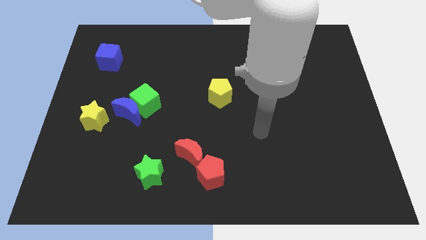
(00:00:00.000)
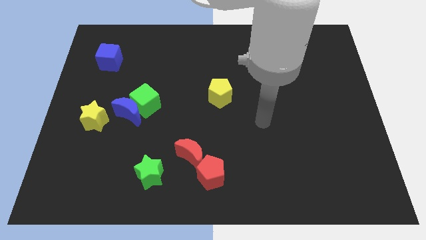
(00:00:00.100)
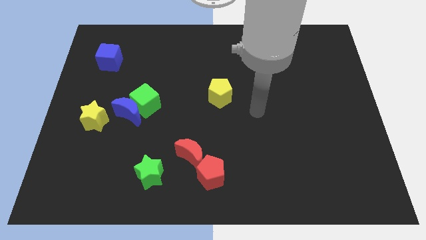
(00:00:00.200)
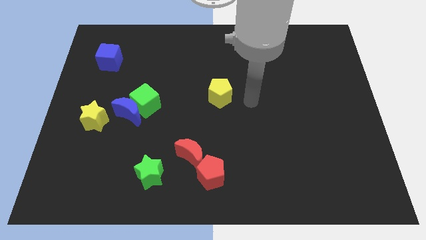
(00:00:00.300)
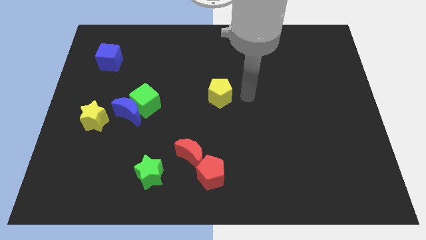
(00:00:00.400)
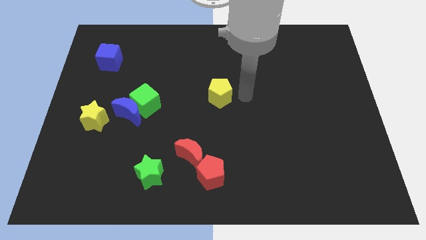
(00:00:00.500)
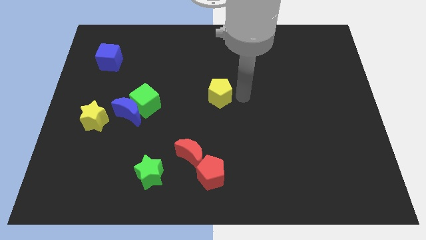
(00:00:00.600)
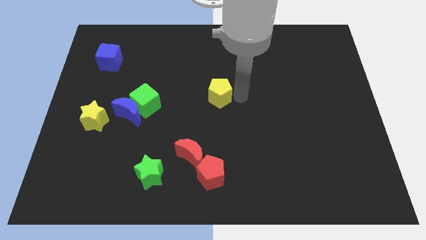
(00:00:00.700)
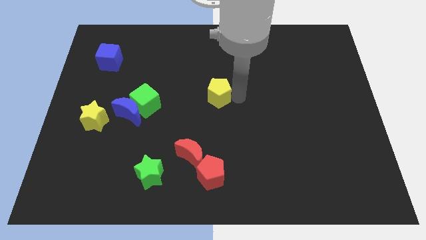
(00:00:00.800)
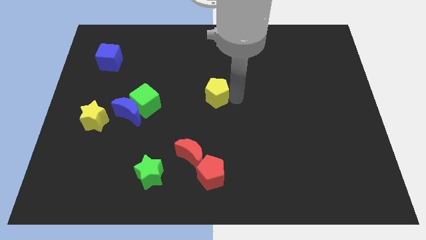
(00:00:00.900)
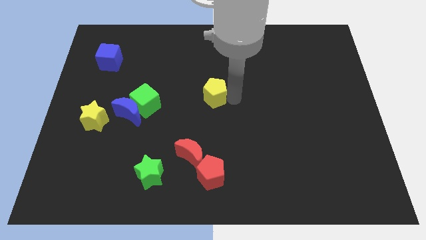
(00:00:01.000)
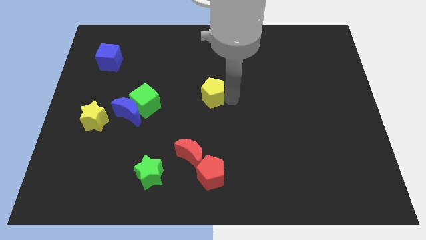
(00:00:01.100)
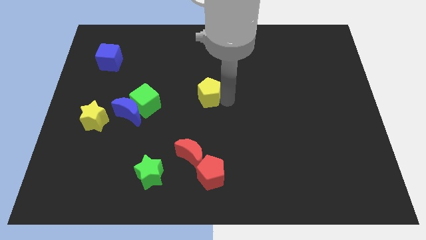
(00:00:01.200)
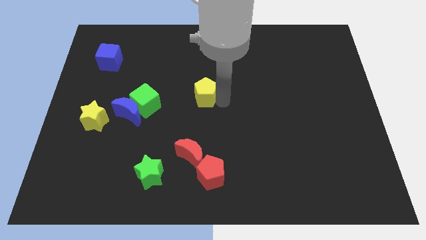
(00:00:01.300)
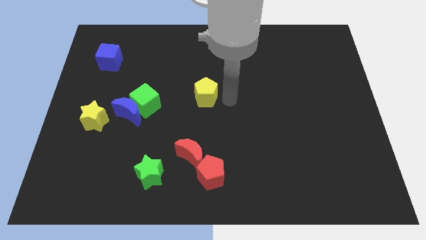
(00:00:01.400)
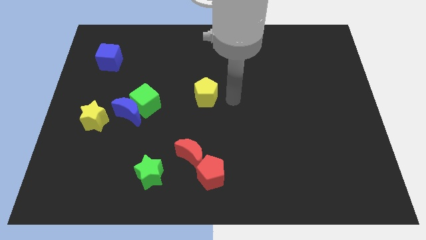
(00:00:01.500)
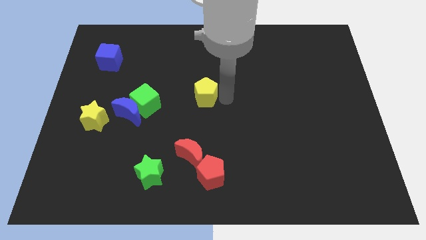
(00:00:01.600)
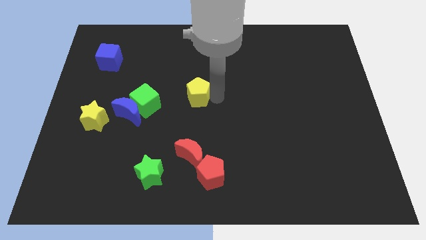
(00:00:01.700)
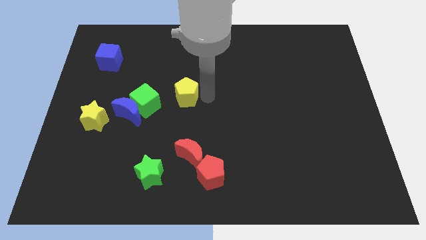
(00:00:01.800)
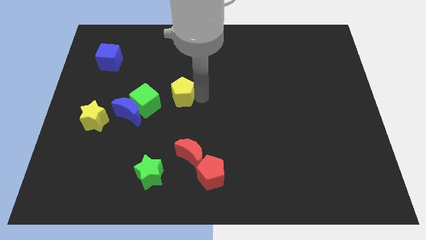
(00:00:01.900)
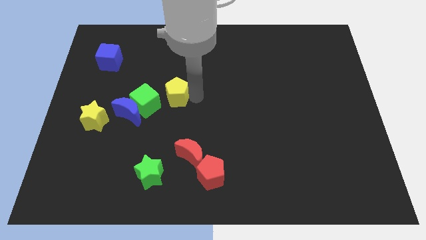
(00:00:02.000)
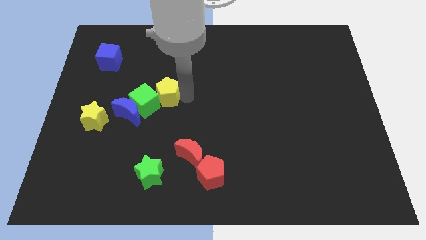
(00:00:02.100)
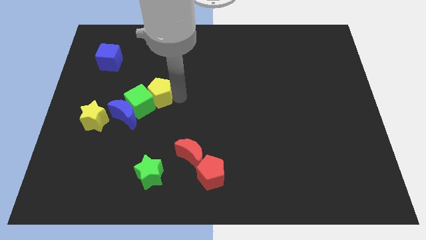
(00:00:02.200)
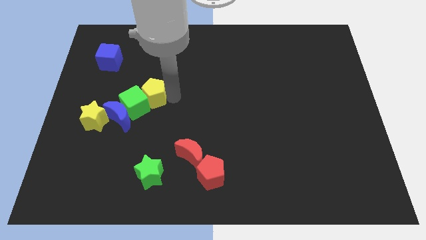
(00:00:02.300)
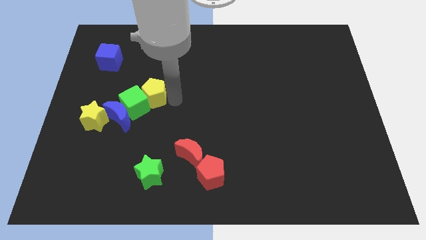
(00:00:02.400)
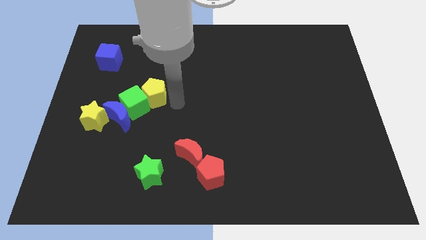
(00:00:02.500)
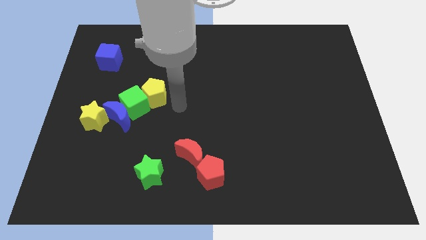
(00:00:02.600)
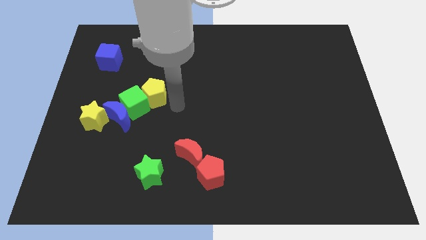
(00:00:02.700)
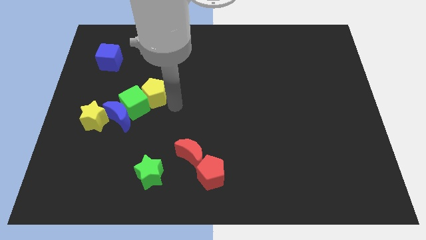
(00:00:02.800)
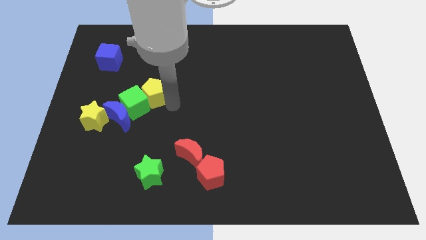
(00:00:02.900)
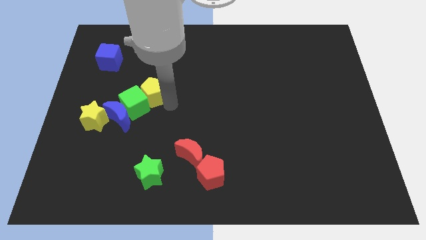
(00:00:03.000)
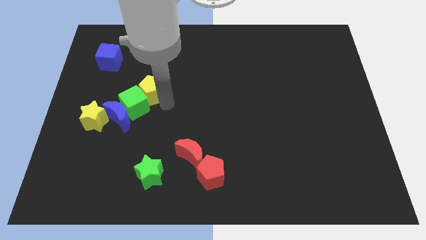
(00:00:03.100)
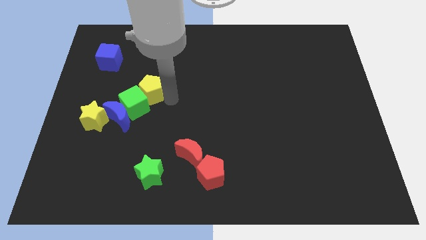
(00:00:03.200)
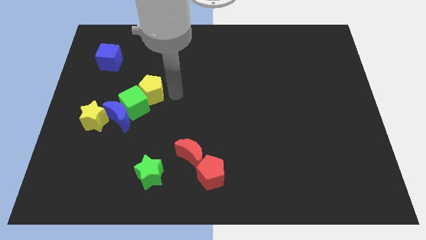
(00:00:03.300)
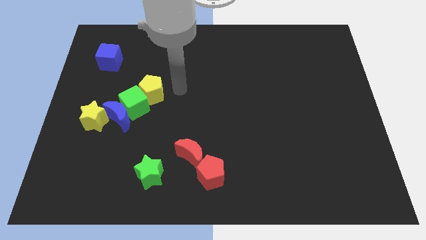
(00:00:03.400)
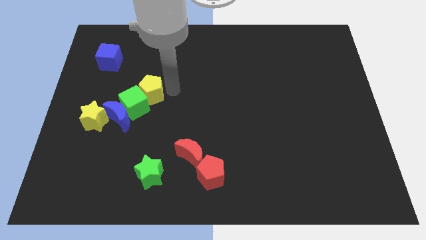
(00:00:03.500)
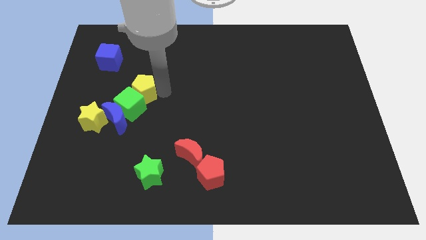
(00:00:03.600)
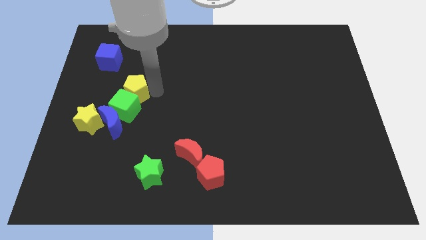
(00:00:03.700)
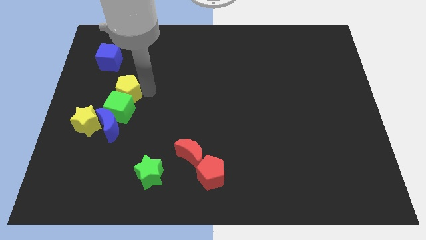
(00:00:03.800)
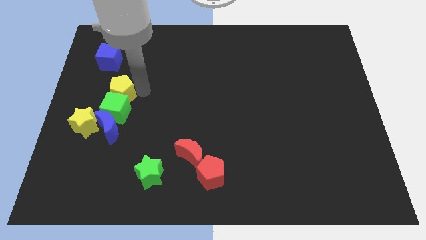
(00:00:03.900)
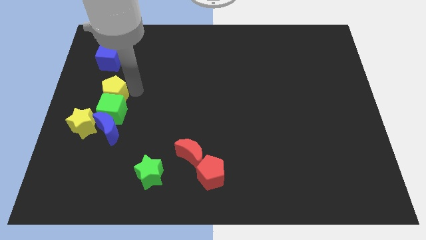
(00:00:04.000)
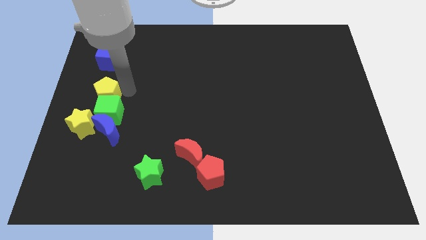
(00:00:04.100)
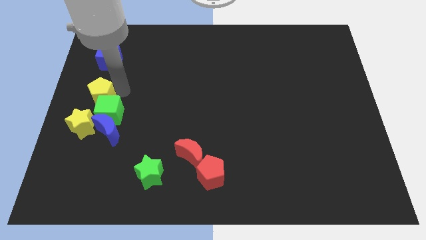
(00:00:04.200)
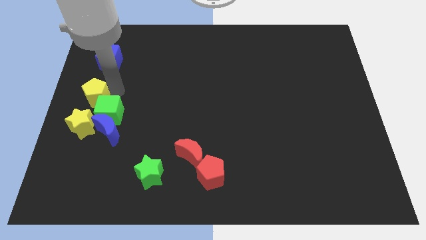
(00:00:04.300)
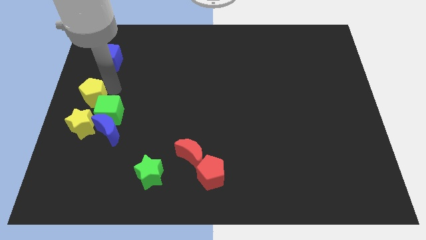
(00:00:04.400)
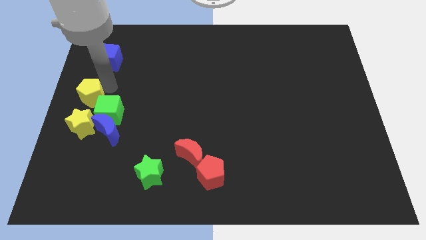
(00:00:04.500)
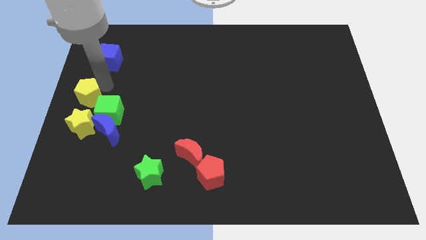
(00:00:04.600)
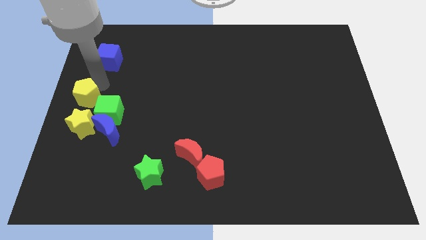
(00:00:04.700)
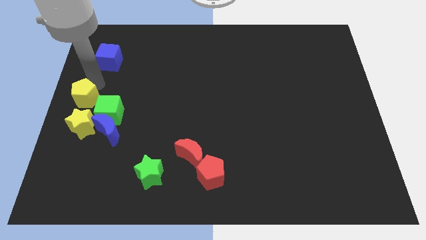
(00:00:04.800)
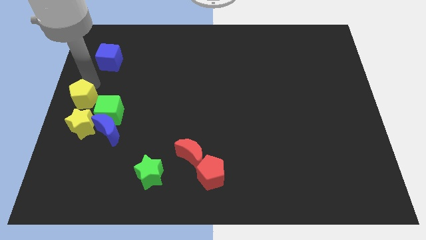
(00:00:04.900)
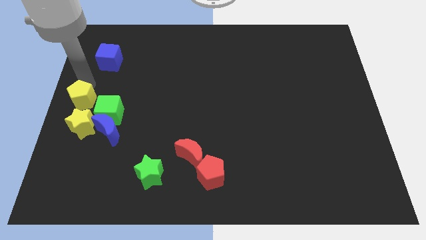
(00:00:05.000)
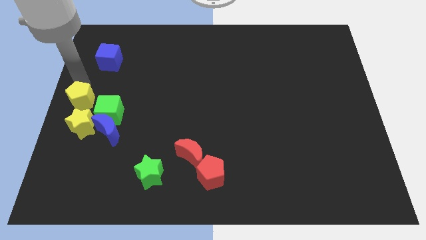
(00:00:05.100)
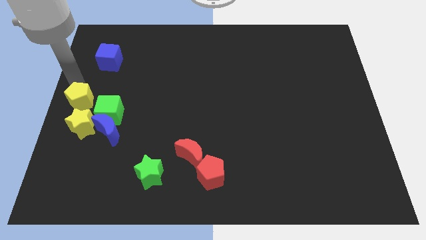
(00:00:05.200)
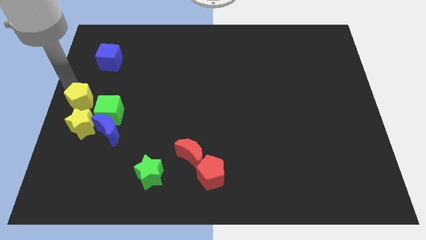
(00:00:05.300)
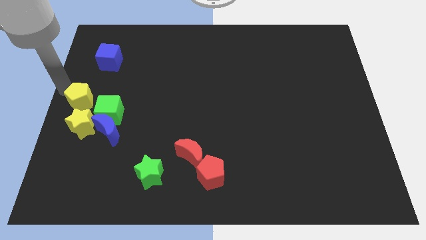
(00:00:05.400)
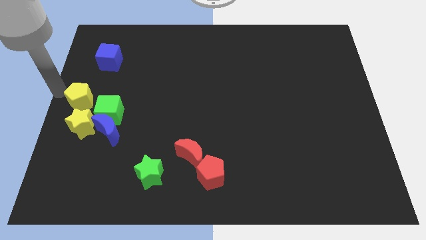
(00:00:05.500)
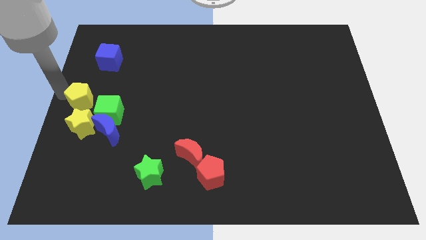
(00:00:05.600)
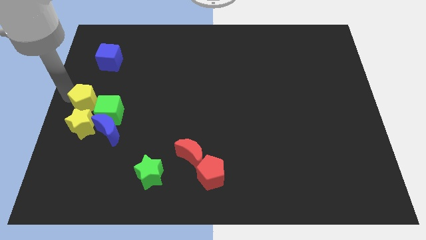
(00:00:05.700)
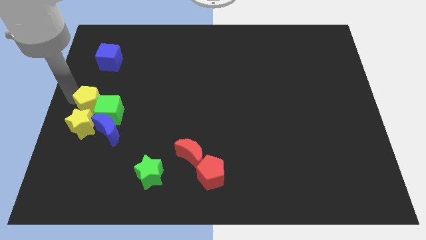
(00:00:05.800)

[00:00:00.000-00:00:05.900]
slide the yellow pentagon close to the yellow star

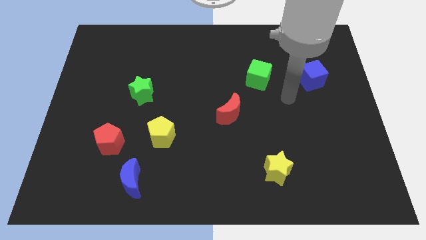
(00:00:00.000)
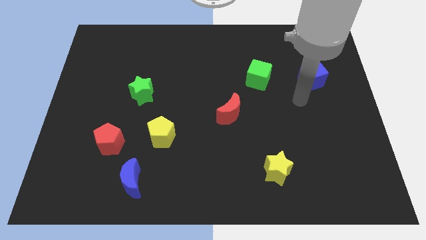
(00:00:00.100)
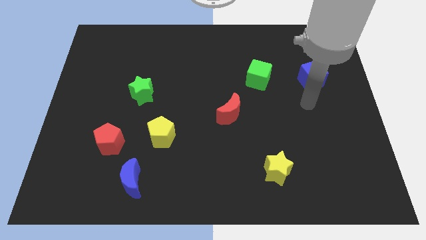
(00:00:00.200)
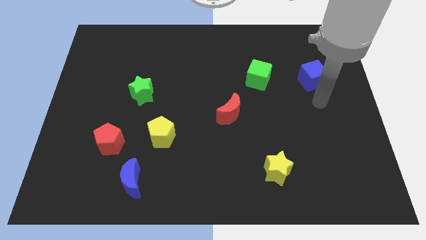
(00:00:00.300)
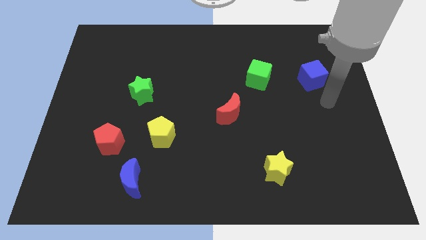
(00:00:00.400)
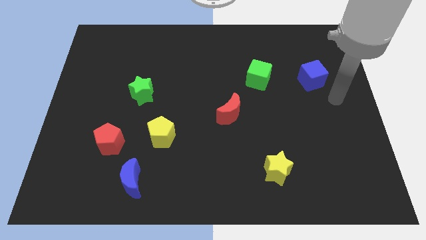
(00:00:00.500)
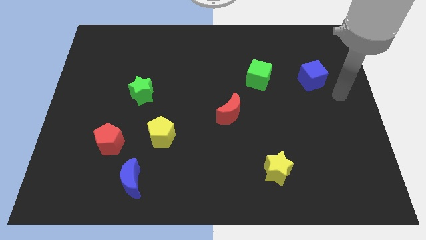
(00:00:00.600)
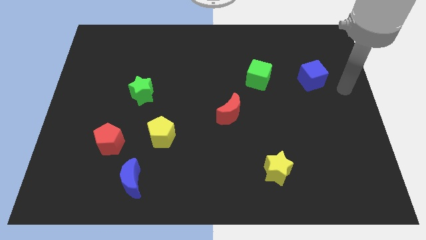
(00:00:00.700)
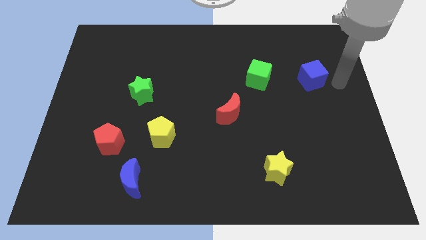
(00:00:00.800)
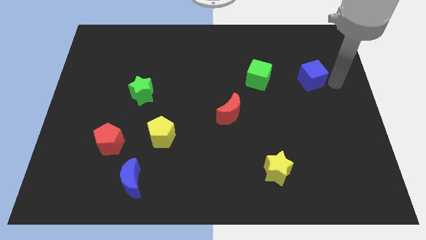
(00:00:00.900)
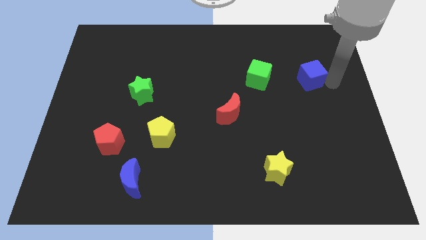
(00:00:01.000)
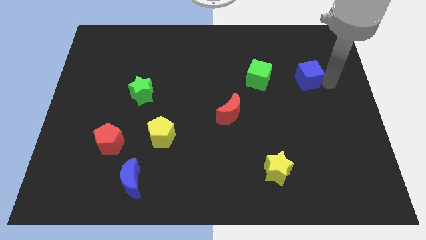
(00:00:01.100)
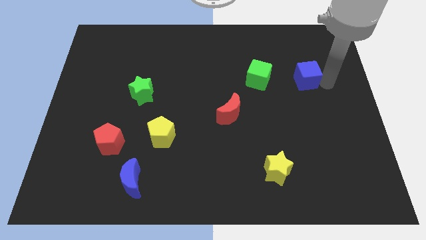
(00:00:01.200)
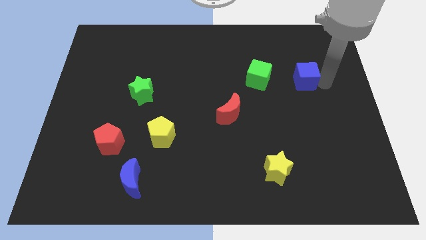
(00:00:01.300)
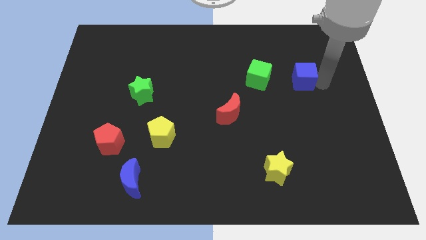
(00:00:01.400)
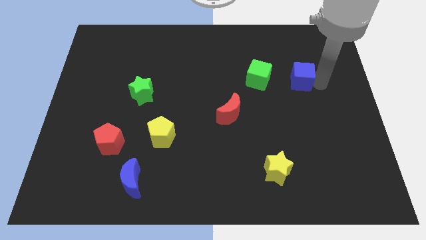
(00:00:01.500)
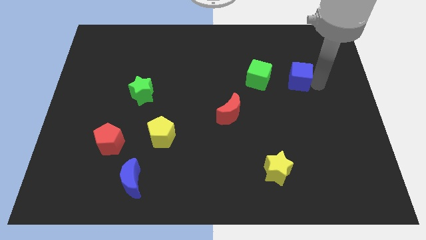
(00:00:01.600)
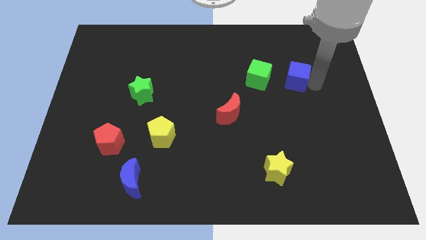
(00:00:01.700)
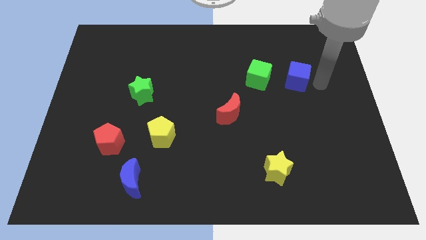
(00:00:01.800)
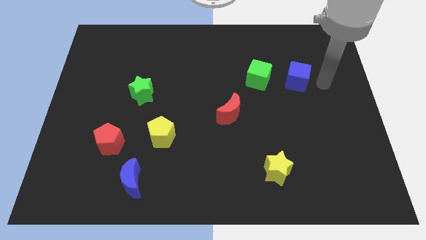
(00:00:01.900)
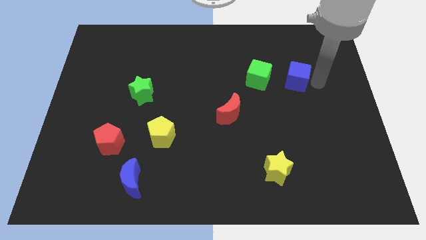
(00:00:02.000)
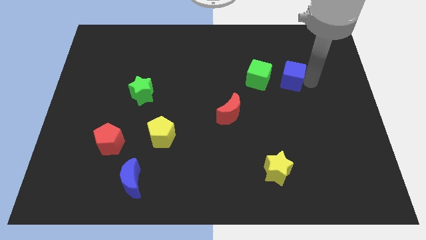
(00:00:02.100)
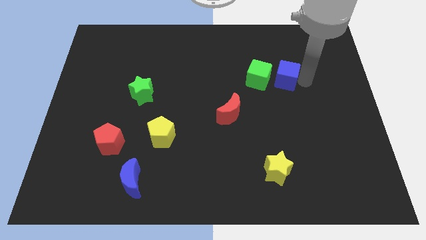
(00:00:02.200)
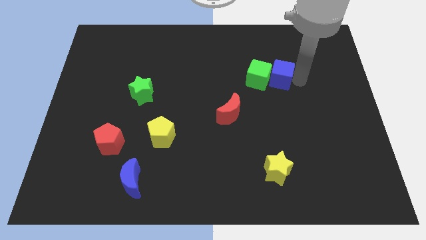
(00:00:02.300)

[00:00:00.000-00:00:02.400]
slide the blue cube to the green cube
